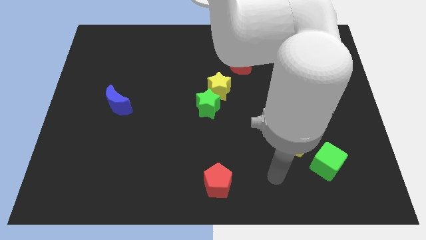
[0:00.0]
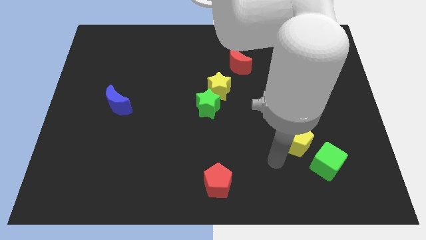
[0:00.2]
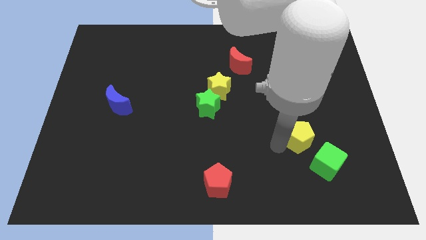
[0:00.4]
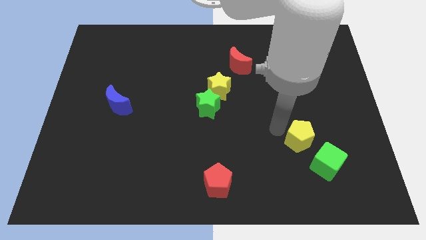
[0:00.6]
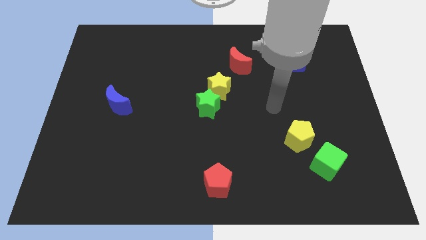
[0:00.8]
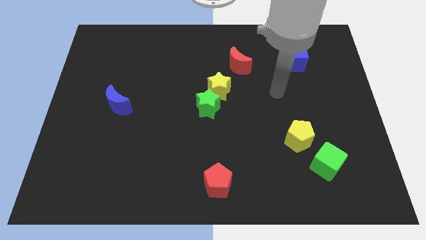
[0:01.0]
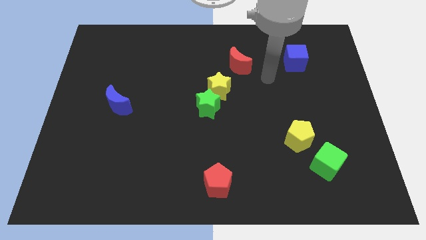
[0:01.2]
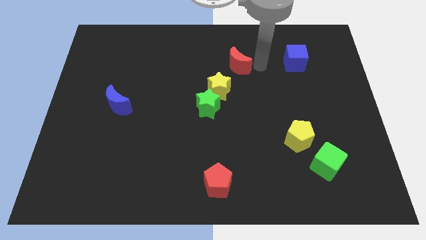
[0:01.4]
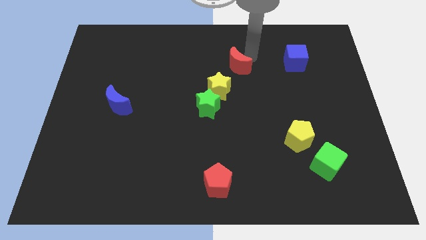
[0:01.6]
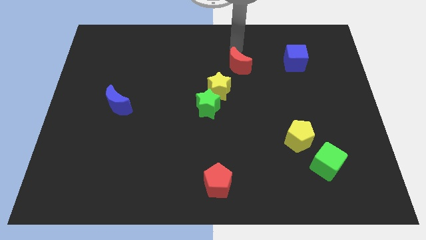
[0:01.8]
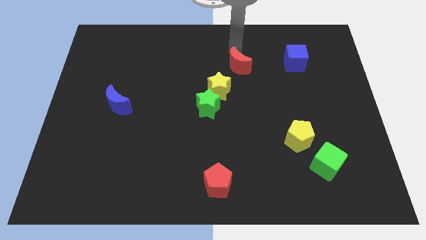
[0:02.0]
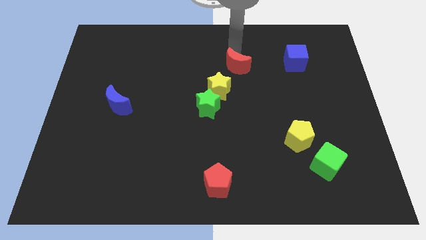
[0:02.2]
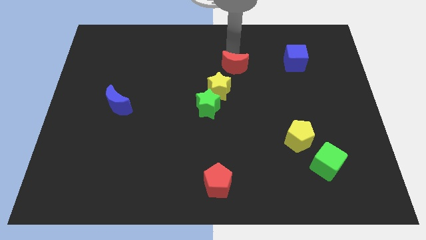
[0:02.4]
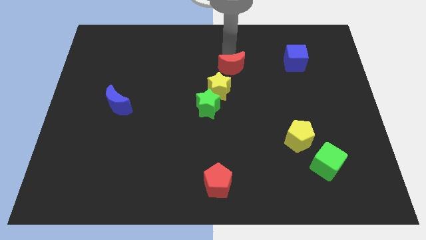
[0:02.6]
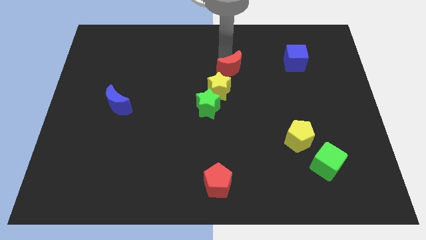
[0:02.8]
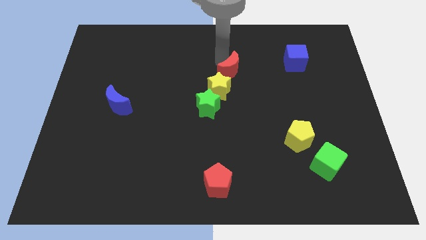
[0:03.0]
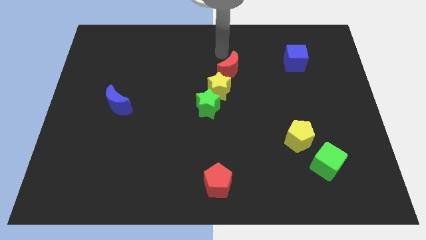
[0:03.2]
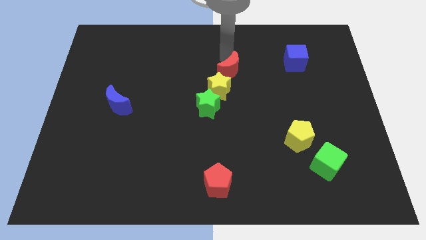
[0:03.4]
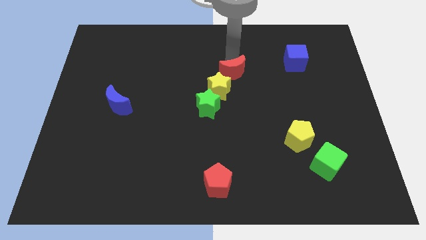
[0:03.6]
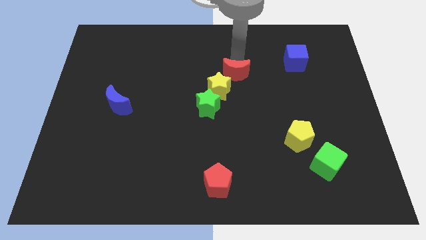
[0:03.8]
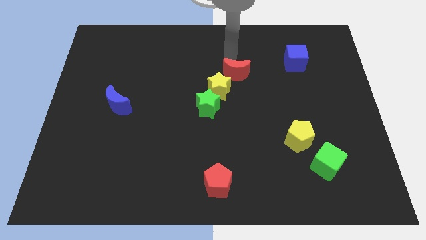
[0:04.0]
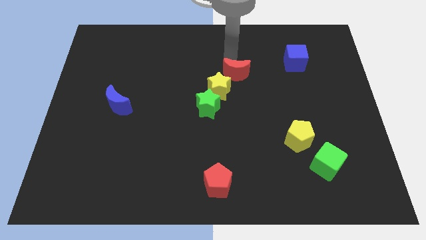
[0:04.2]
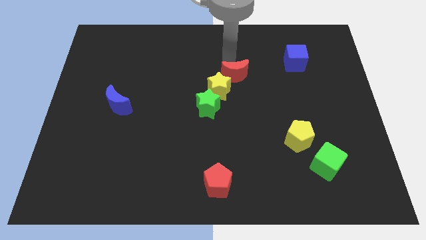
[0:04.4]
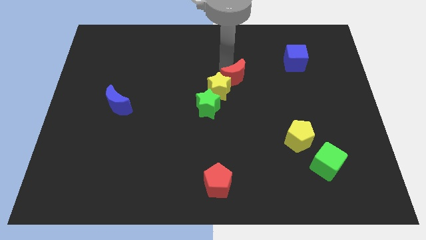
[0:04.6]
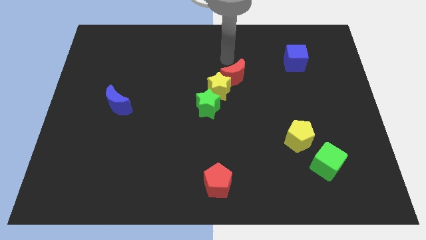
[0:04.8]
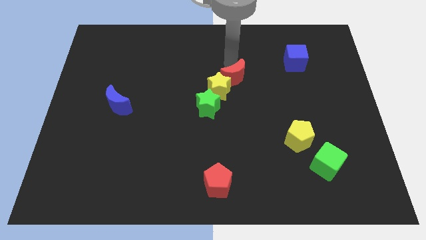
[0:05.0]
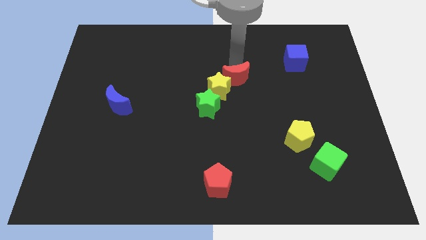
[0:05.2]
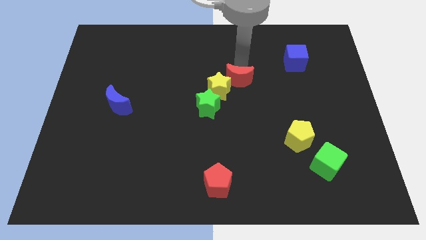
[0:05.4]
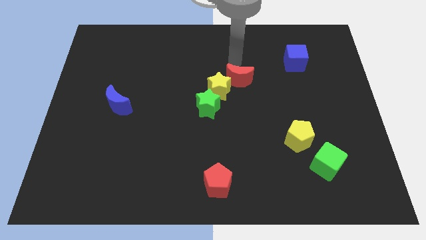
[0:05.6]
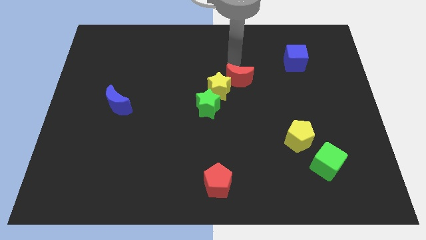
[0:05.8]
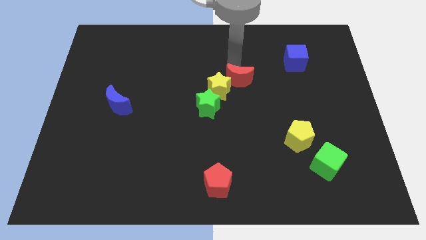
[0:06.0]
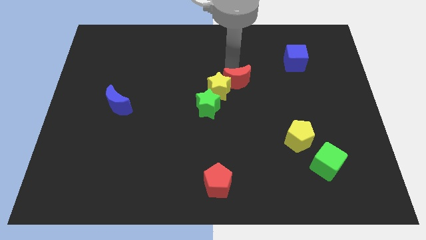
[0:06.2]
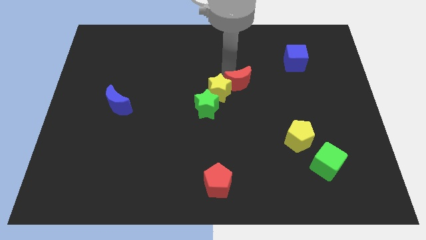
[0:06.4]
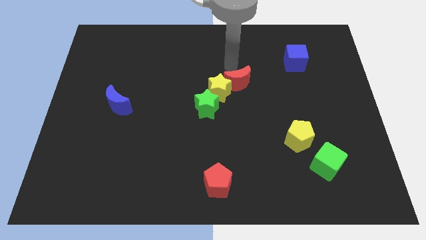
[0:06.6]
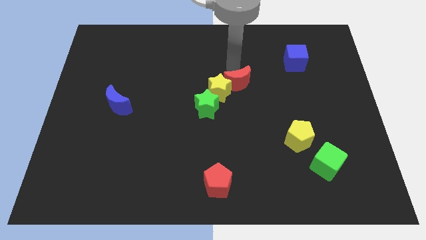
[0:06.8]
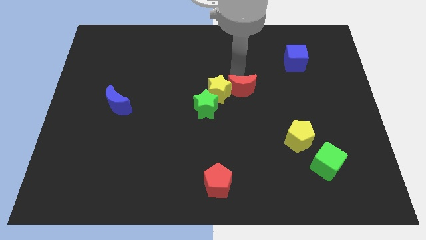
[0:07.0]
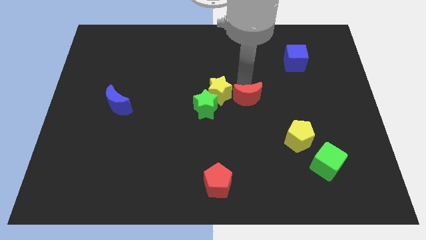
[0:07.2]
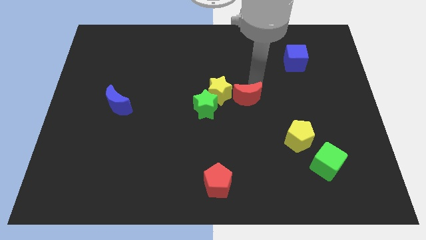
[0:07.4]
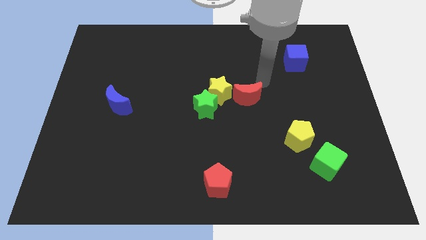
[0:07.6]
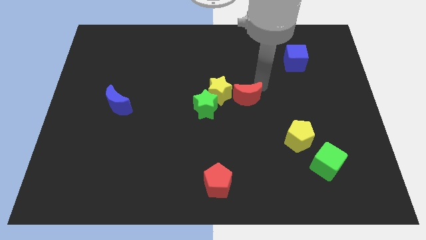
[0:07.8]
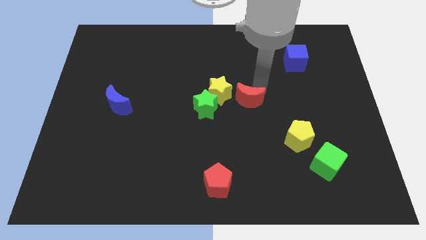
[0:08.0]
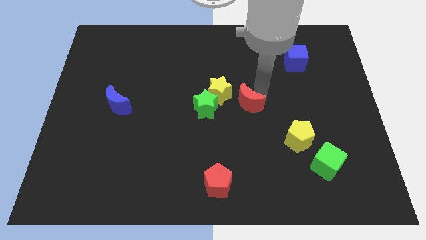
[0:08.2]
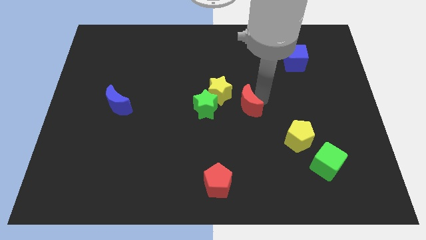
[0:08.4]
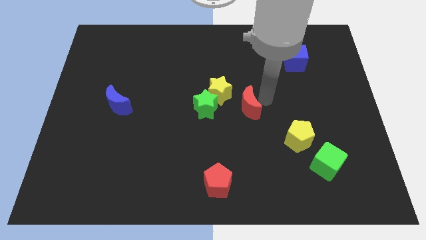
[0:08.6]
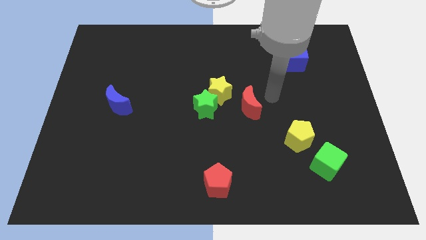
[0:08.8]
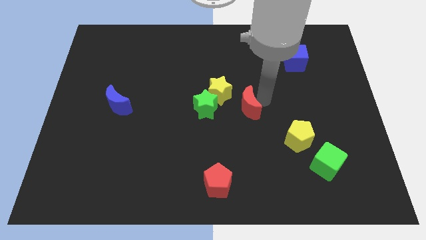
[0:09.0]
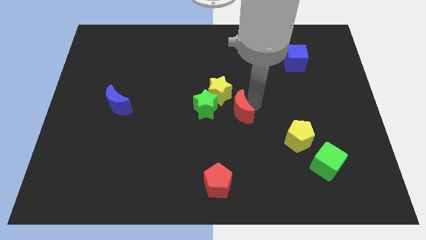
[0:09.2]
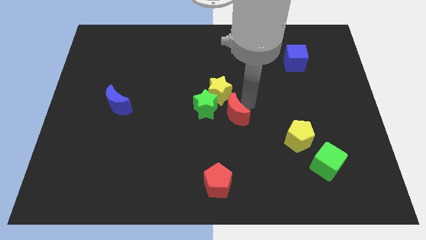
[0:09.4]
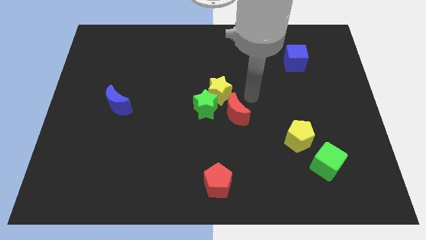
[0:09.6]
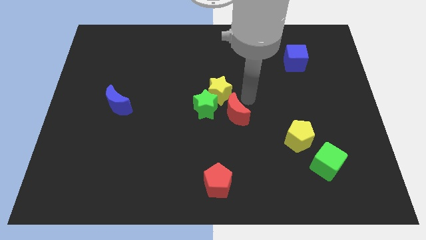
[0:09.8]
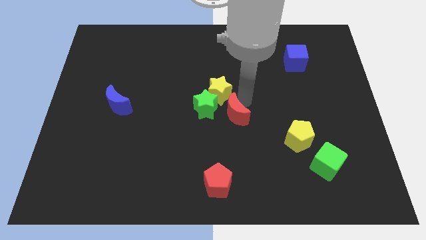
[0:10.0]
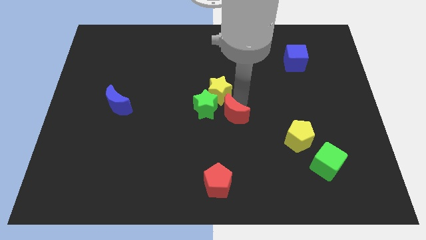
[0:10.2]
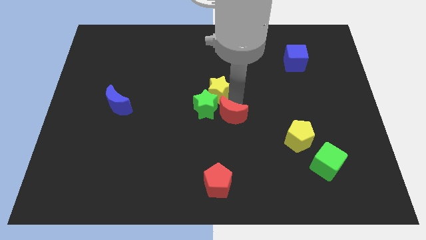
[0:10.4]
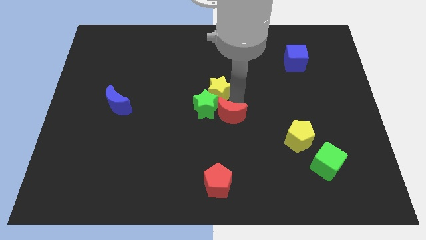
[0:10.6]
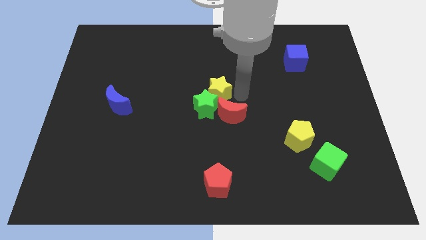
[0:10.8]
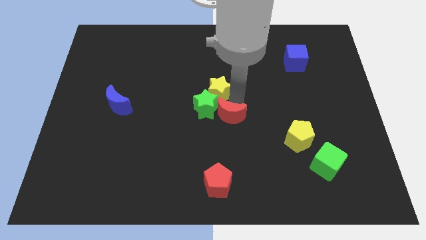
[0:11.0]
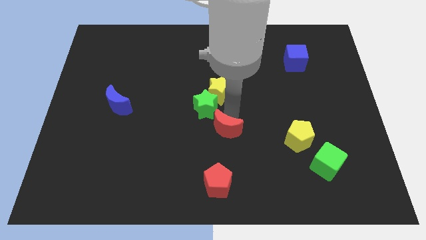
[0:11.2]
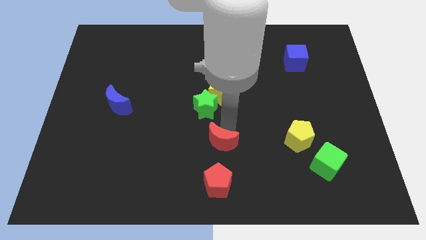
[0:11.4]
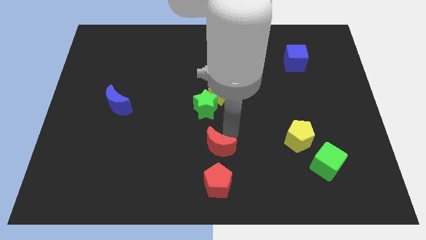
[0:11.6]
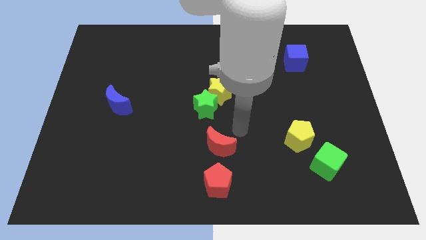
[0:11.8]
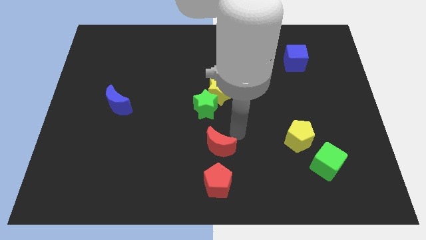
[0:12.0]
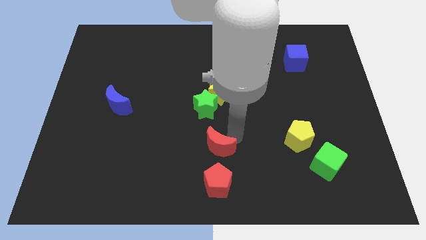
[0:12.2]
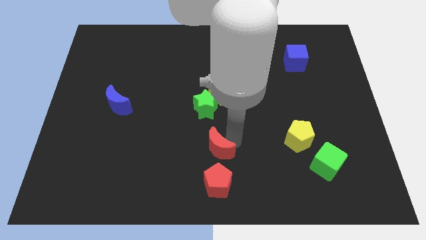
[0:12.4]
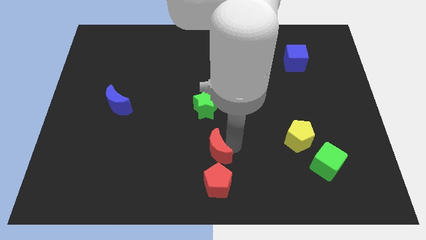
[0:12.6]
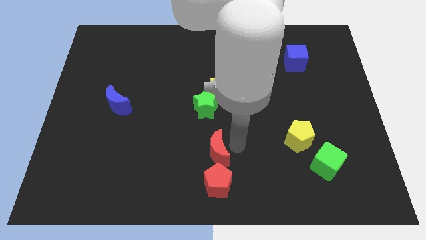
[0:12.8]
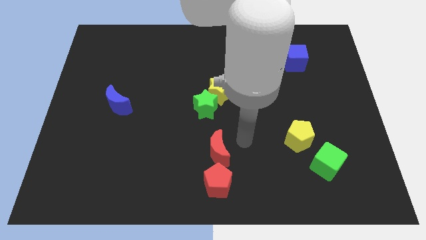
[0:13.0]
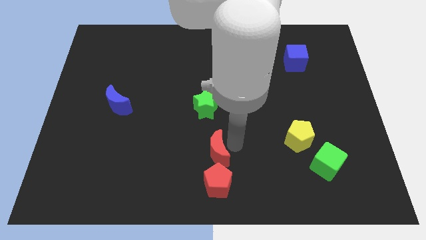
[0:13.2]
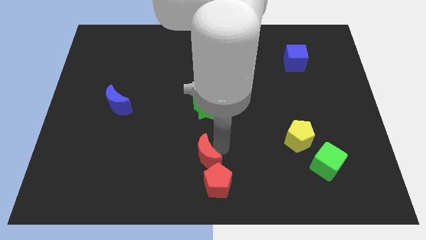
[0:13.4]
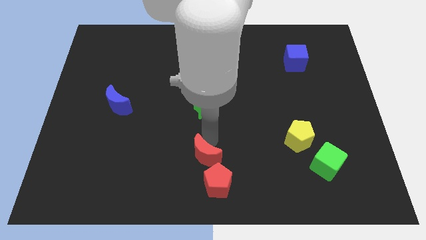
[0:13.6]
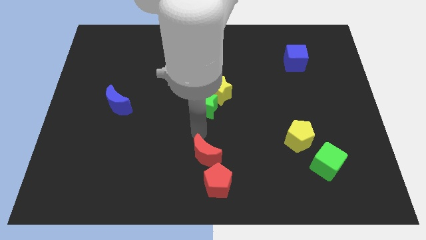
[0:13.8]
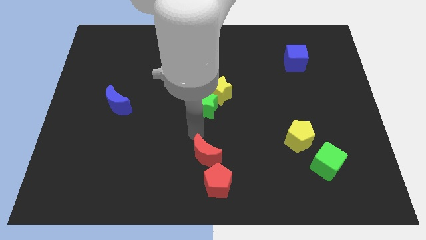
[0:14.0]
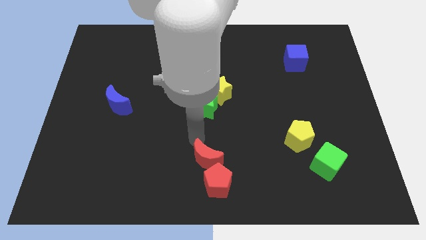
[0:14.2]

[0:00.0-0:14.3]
slide the red moon next to the red pentagon
